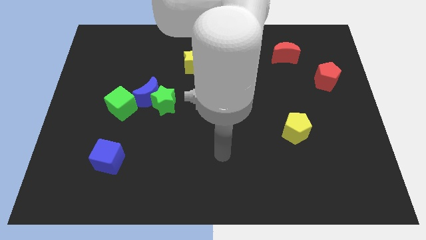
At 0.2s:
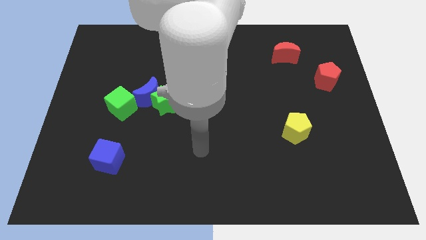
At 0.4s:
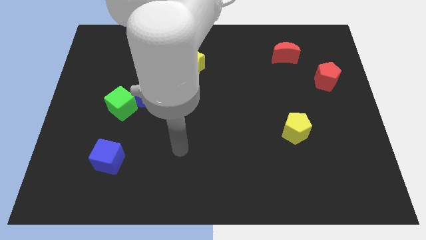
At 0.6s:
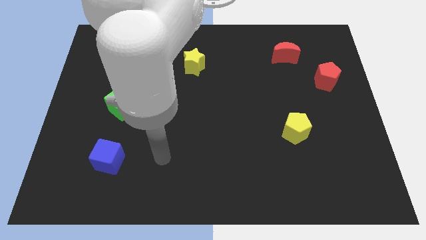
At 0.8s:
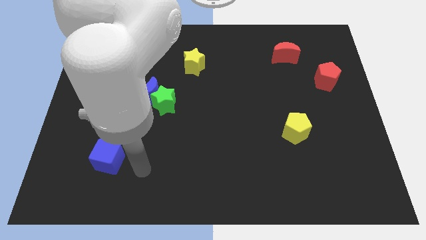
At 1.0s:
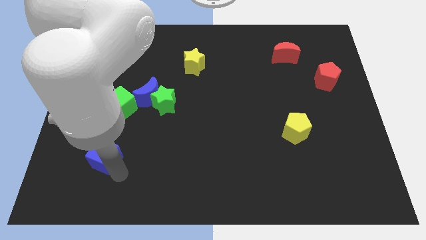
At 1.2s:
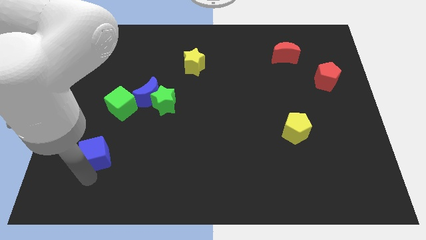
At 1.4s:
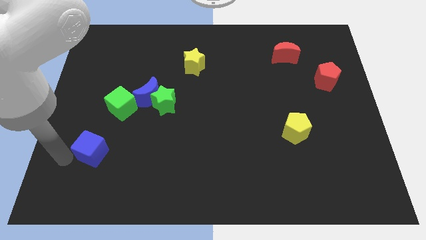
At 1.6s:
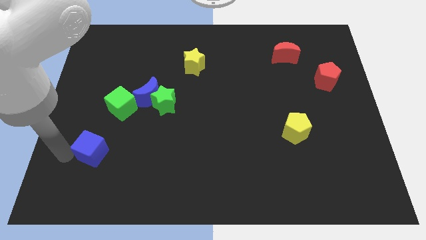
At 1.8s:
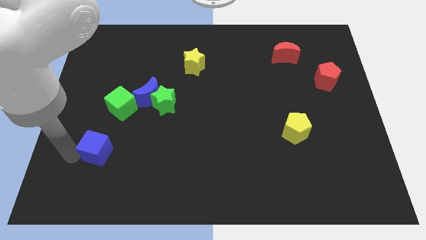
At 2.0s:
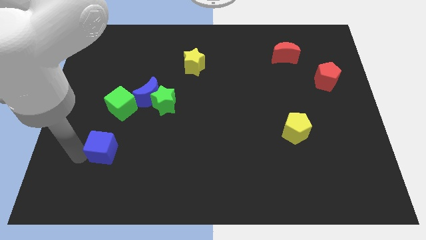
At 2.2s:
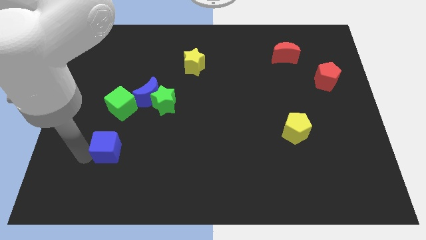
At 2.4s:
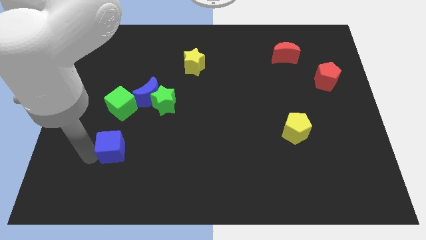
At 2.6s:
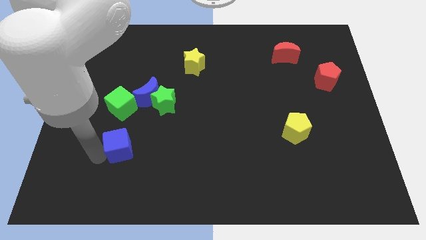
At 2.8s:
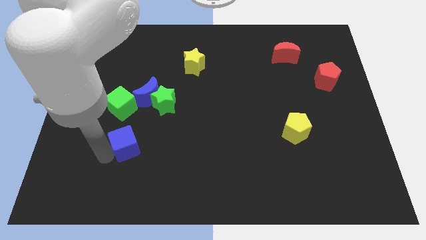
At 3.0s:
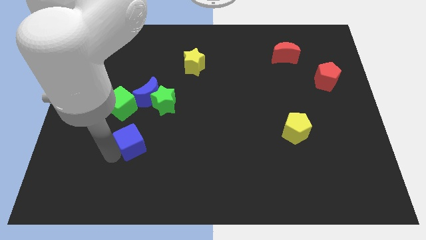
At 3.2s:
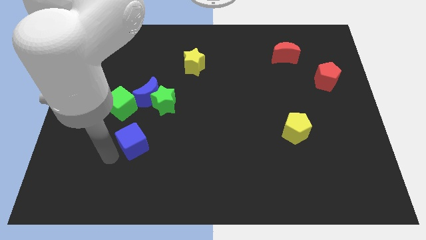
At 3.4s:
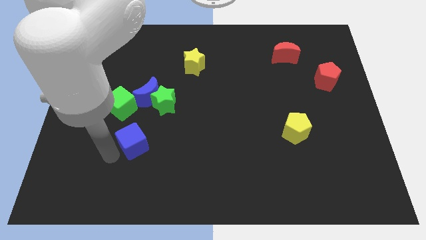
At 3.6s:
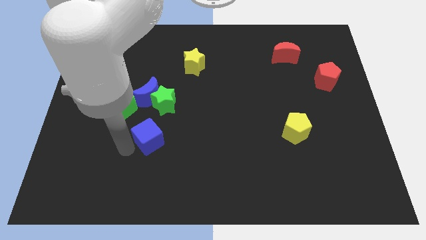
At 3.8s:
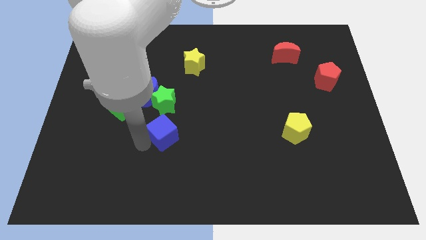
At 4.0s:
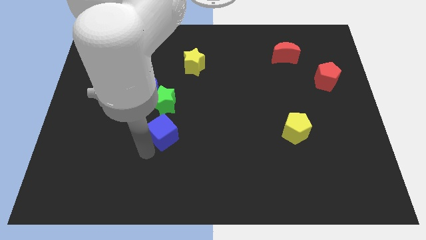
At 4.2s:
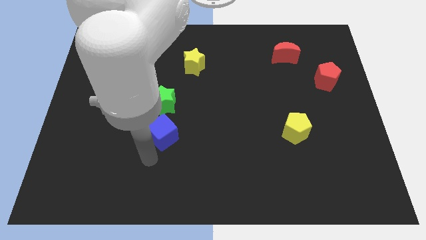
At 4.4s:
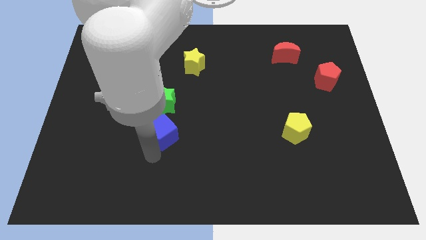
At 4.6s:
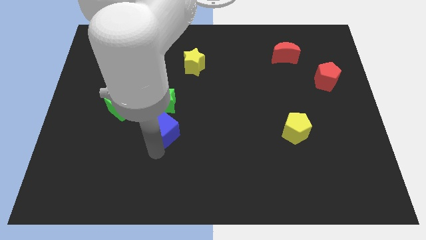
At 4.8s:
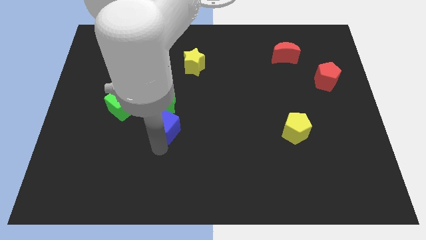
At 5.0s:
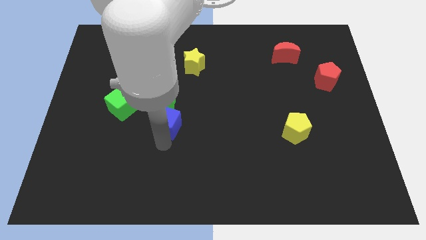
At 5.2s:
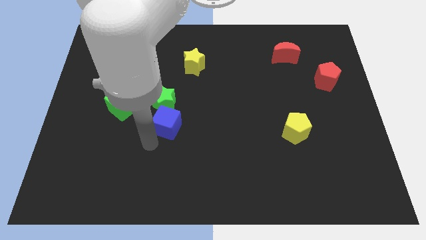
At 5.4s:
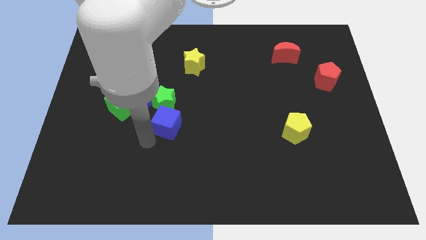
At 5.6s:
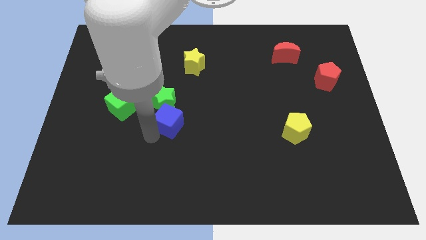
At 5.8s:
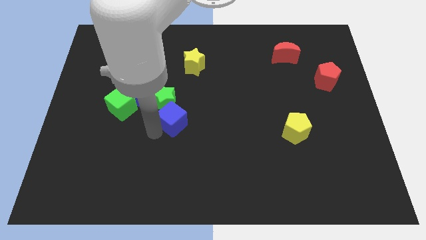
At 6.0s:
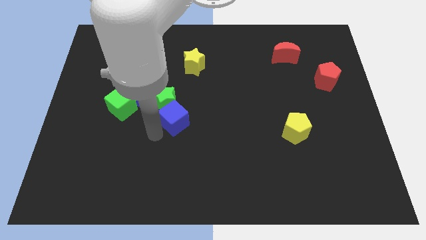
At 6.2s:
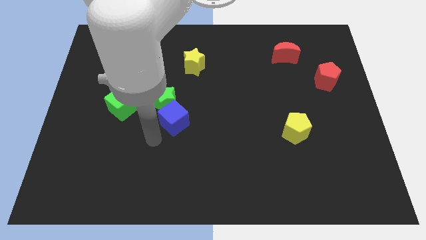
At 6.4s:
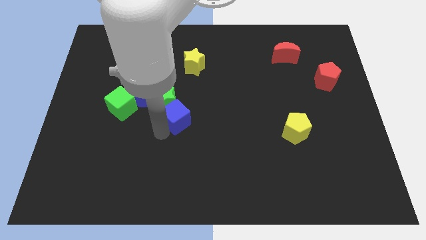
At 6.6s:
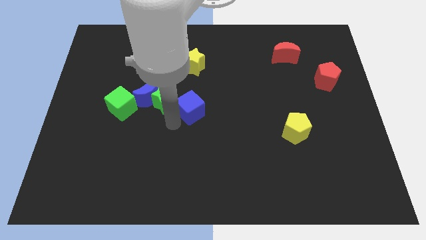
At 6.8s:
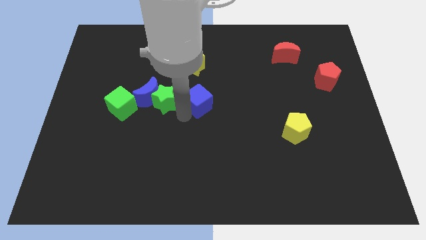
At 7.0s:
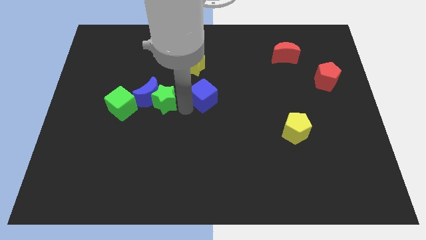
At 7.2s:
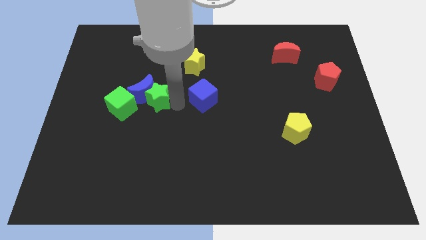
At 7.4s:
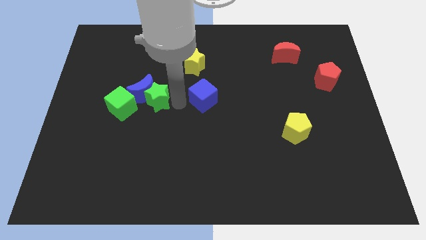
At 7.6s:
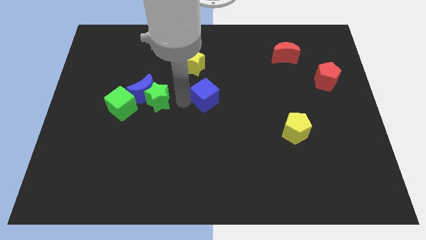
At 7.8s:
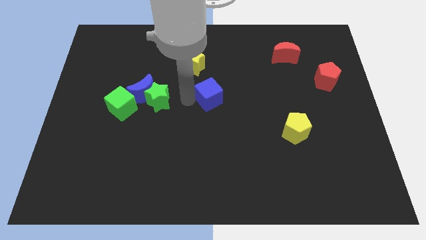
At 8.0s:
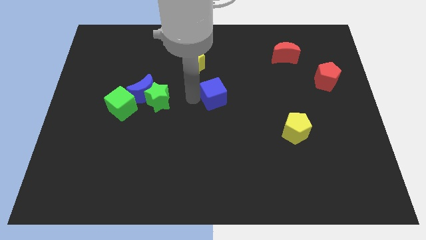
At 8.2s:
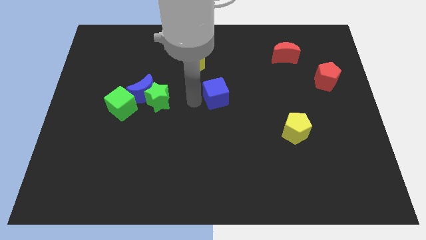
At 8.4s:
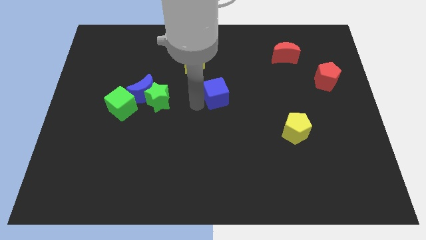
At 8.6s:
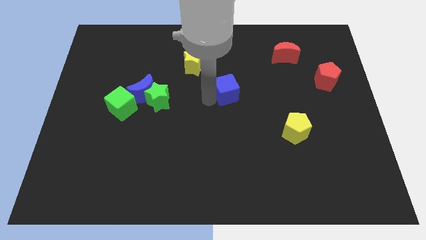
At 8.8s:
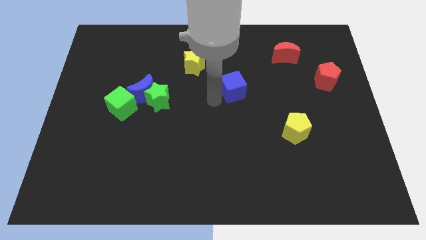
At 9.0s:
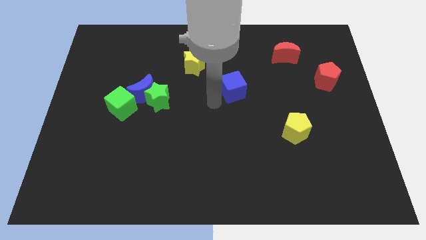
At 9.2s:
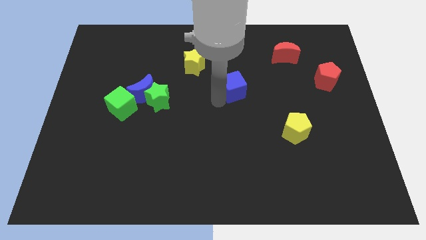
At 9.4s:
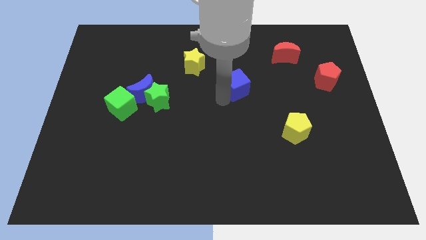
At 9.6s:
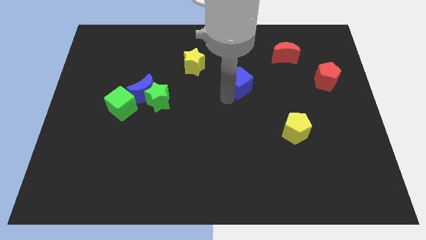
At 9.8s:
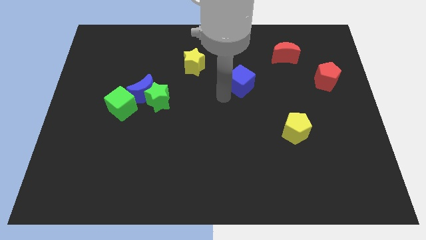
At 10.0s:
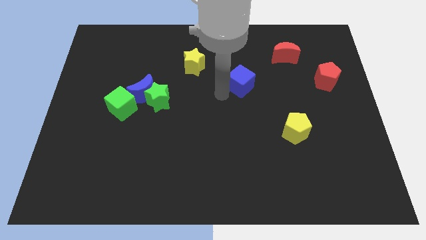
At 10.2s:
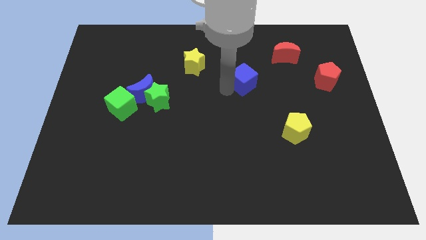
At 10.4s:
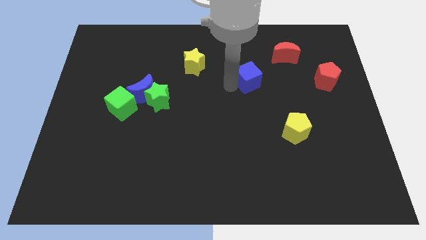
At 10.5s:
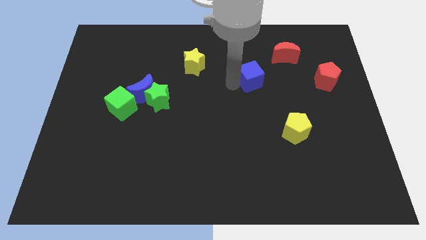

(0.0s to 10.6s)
push the blue cube diagonally down and to the left of the red moon

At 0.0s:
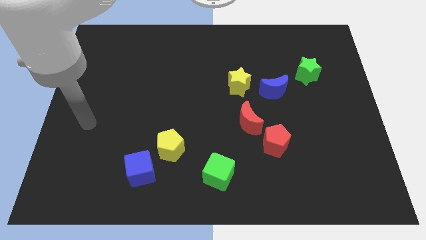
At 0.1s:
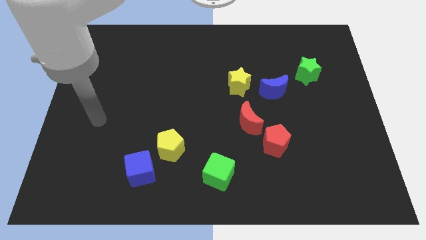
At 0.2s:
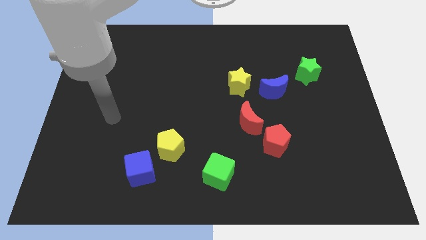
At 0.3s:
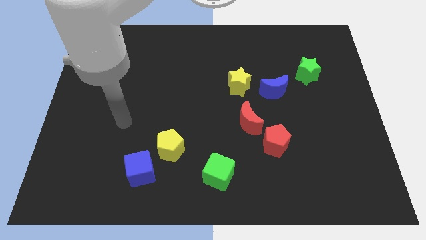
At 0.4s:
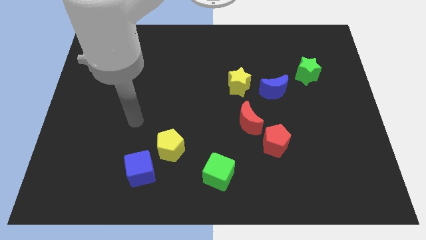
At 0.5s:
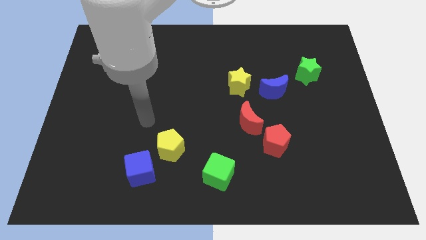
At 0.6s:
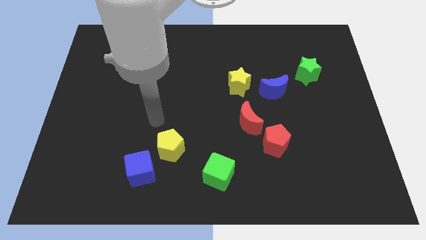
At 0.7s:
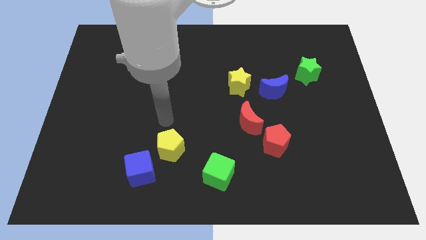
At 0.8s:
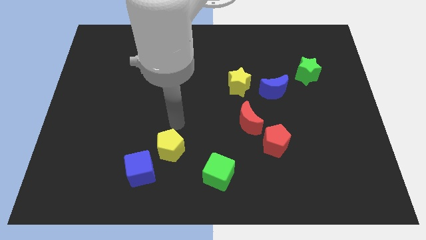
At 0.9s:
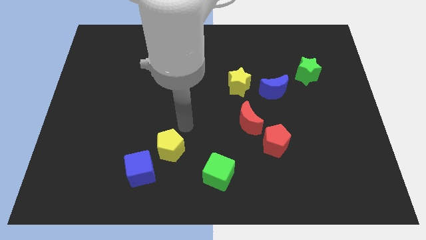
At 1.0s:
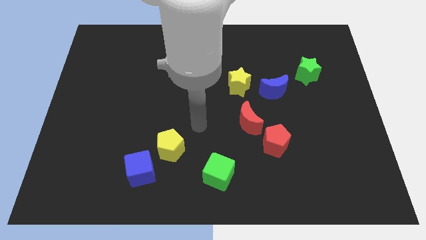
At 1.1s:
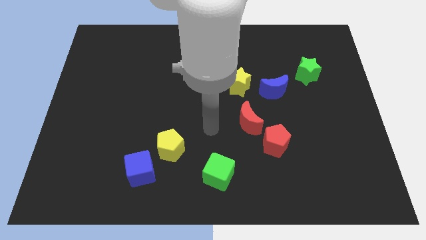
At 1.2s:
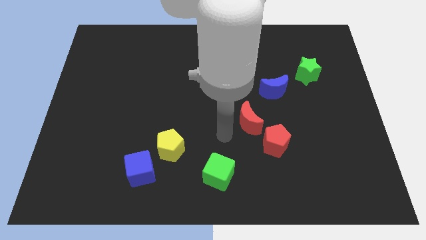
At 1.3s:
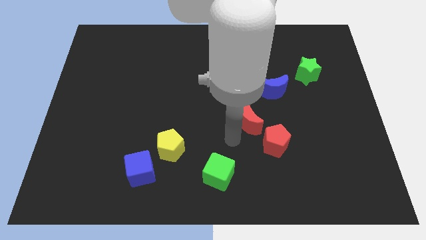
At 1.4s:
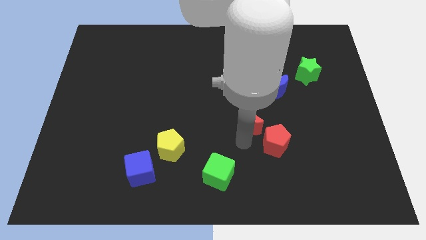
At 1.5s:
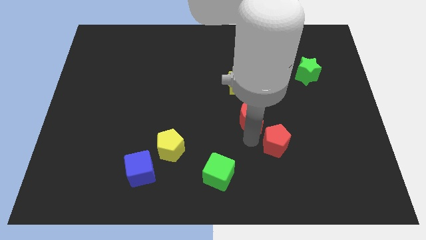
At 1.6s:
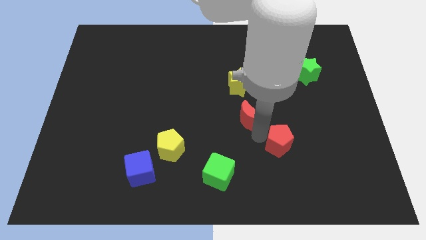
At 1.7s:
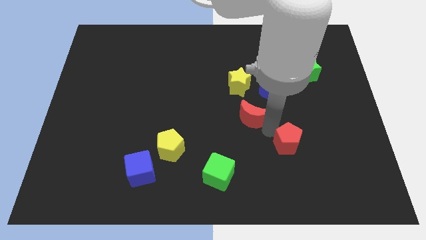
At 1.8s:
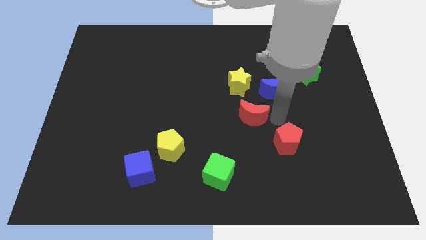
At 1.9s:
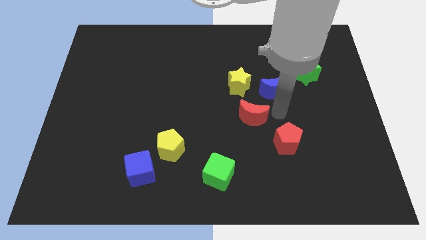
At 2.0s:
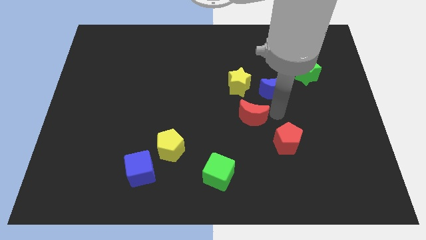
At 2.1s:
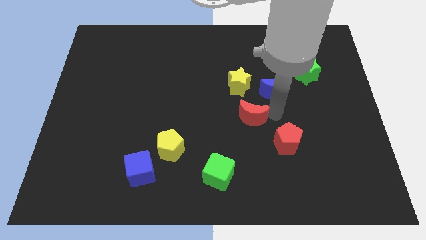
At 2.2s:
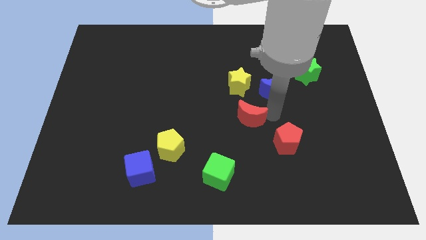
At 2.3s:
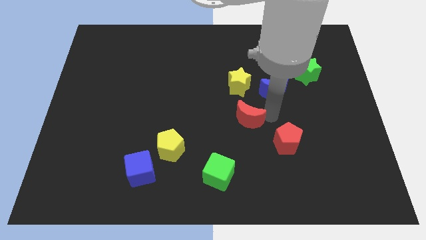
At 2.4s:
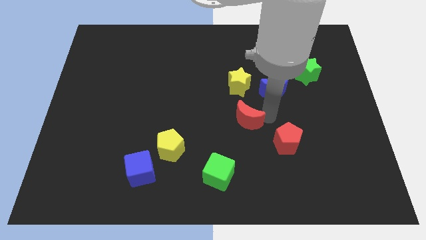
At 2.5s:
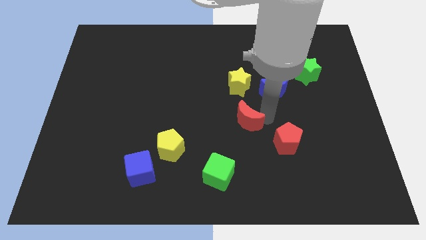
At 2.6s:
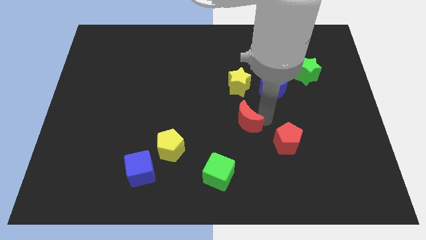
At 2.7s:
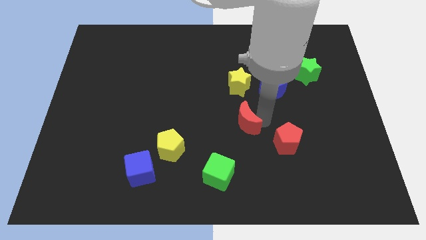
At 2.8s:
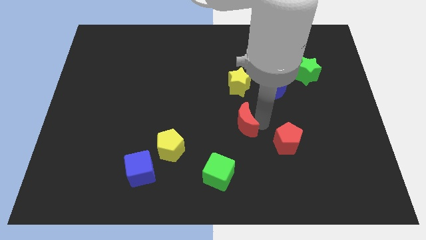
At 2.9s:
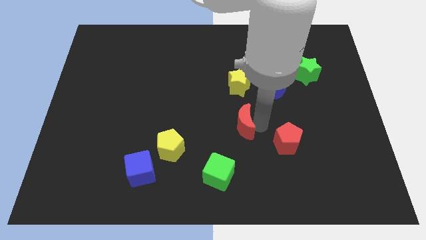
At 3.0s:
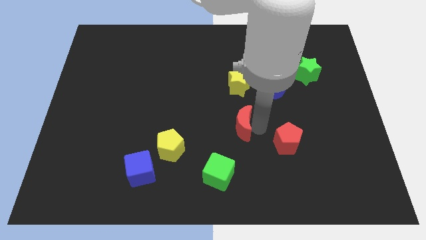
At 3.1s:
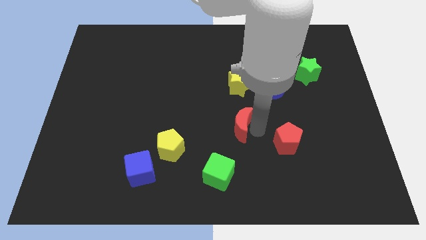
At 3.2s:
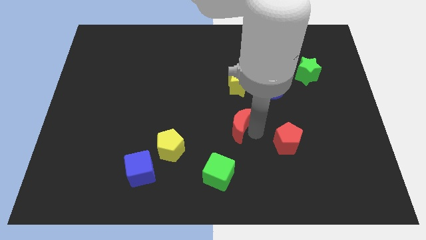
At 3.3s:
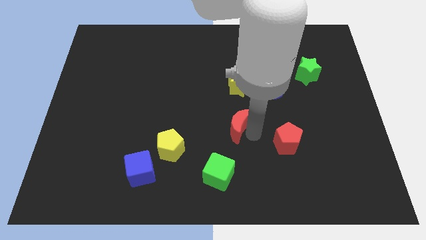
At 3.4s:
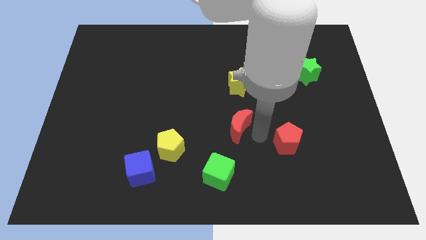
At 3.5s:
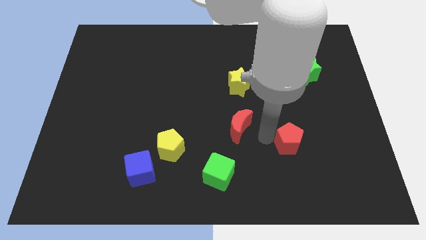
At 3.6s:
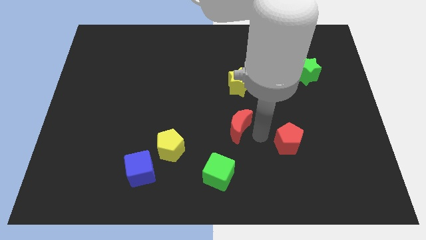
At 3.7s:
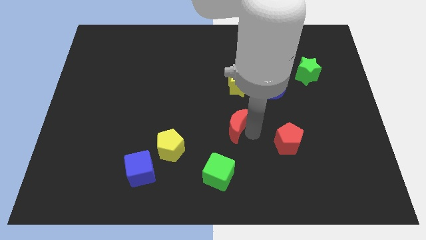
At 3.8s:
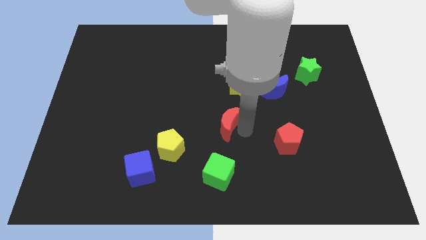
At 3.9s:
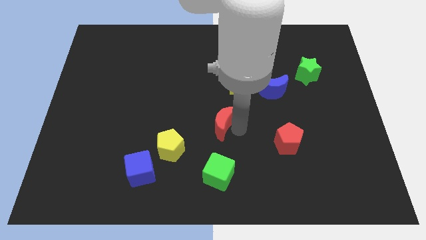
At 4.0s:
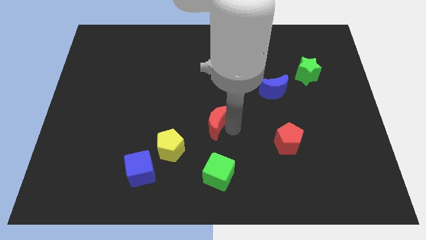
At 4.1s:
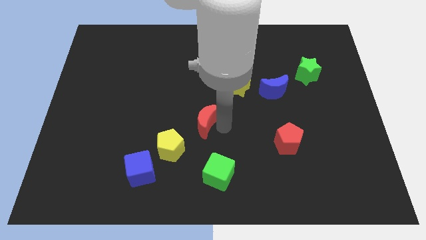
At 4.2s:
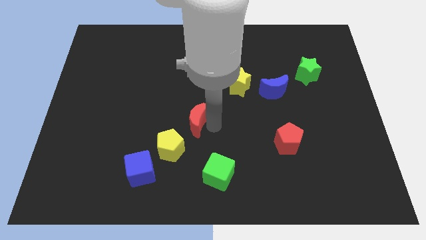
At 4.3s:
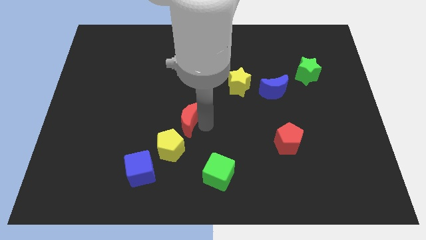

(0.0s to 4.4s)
slide the red moon above the yellow pentagon
